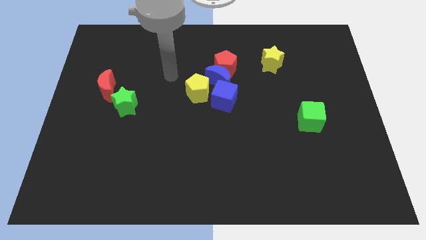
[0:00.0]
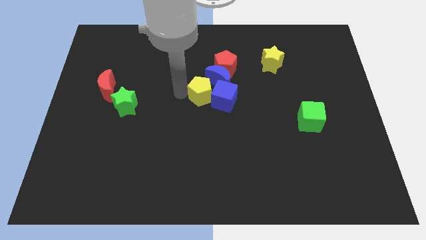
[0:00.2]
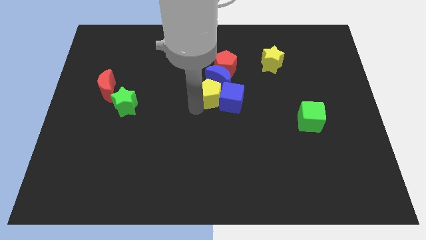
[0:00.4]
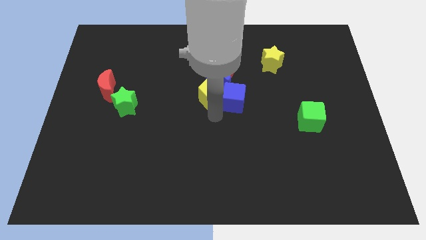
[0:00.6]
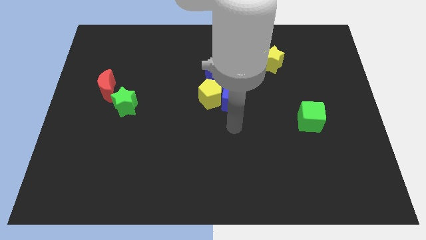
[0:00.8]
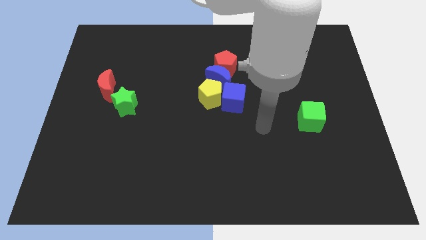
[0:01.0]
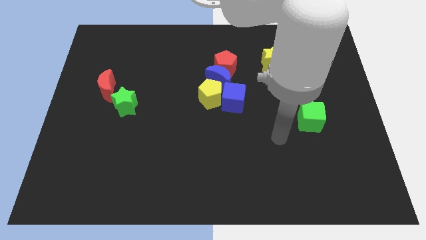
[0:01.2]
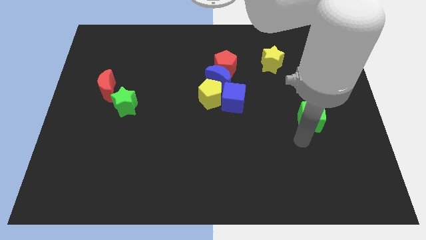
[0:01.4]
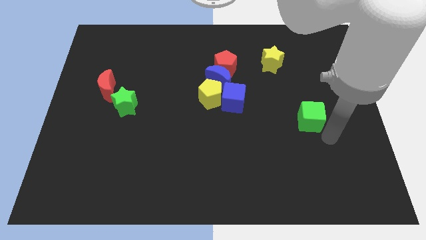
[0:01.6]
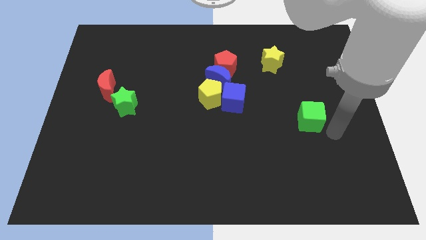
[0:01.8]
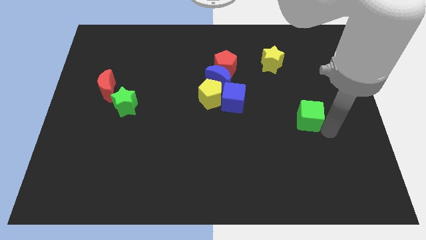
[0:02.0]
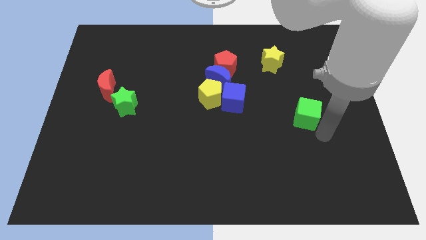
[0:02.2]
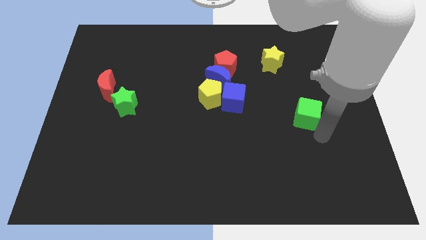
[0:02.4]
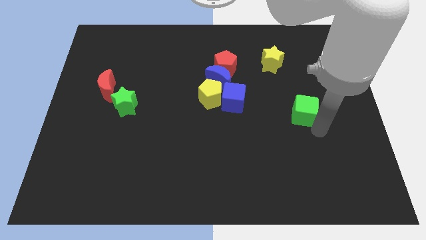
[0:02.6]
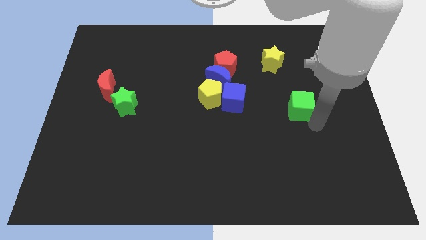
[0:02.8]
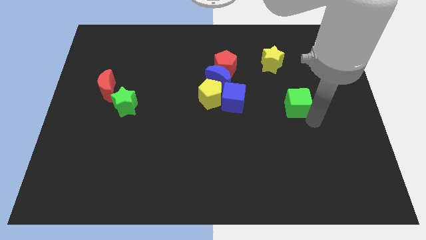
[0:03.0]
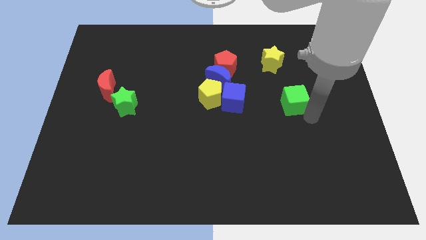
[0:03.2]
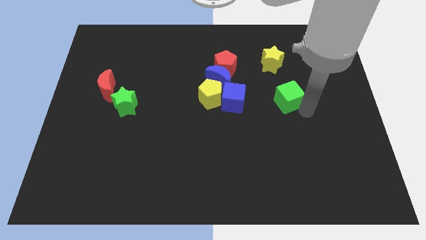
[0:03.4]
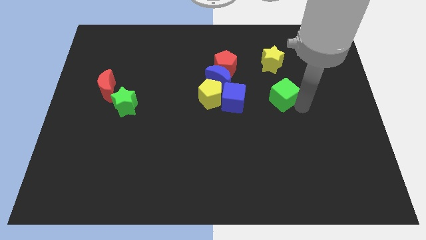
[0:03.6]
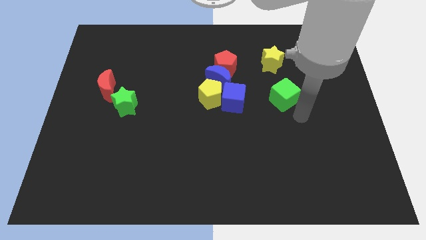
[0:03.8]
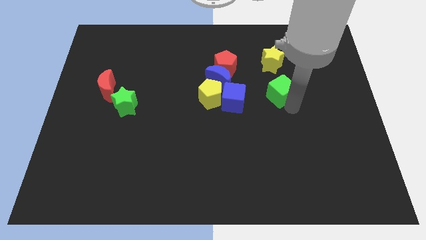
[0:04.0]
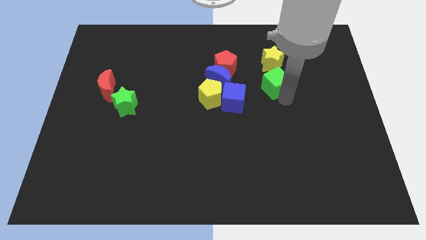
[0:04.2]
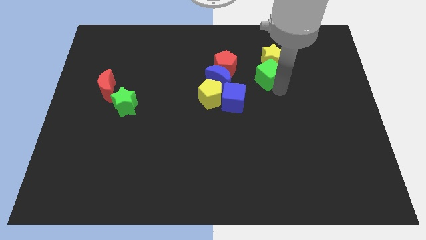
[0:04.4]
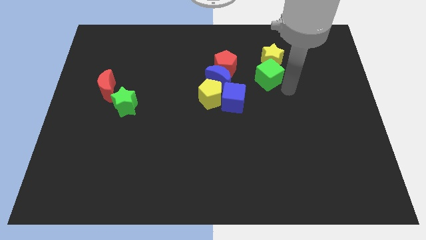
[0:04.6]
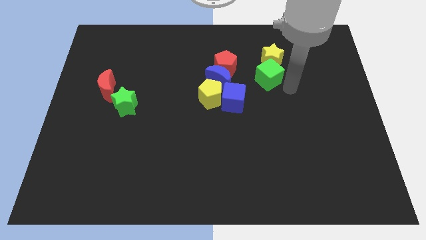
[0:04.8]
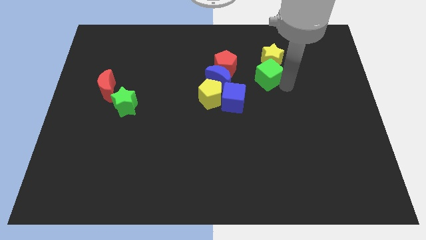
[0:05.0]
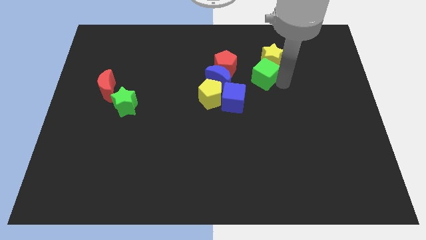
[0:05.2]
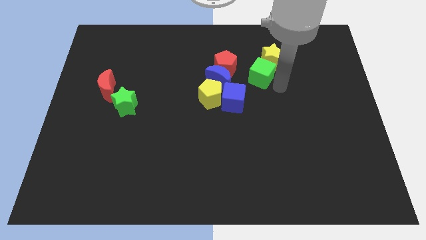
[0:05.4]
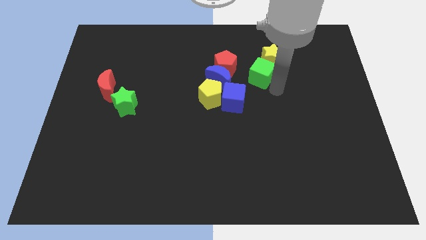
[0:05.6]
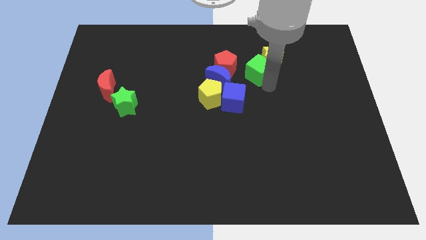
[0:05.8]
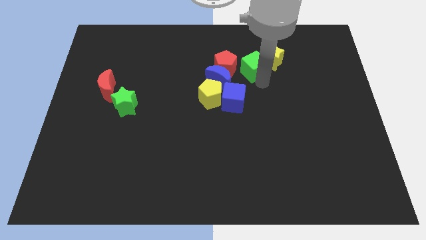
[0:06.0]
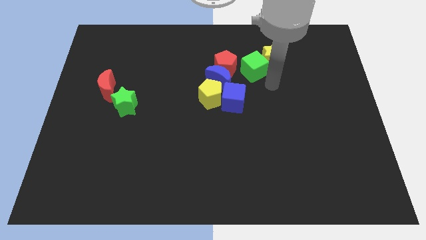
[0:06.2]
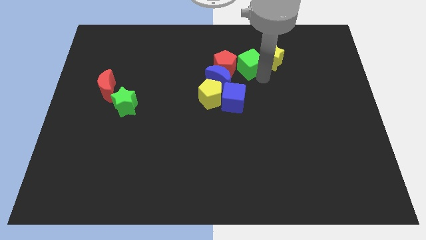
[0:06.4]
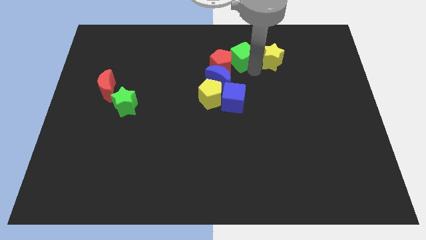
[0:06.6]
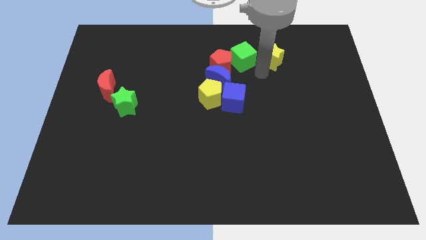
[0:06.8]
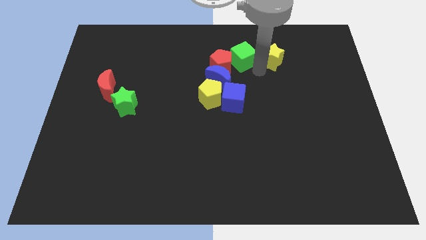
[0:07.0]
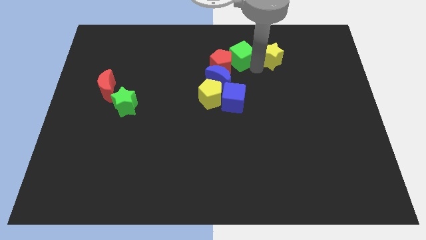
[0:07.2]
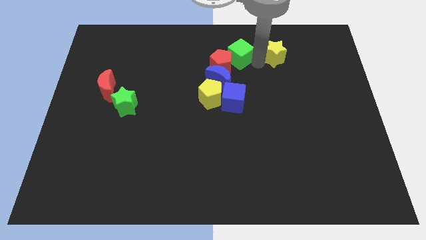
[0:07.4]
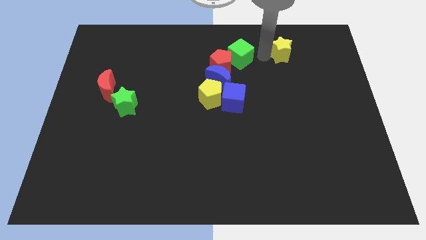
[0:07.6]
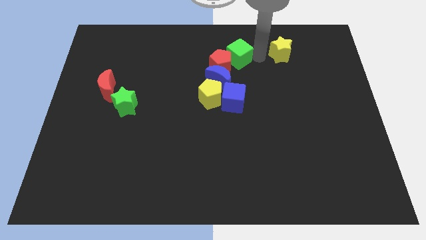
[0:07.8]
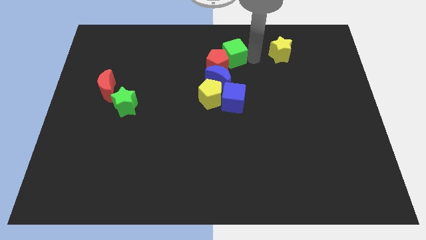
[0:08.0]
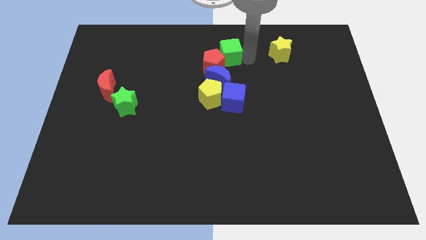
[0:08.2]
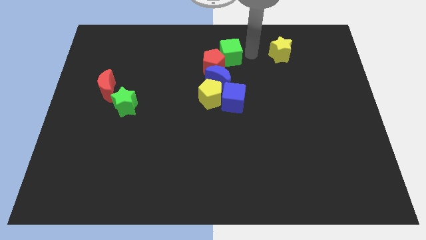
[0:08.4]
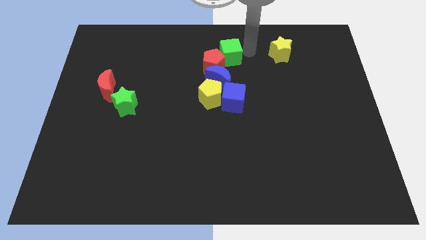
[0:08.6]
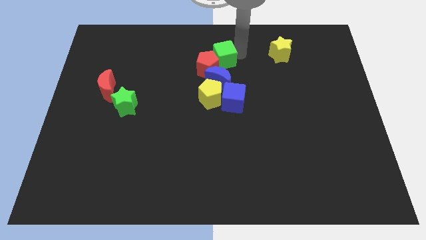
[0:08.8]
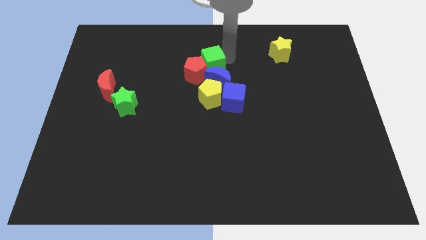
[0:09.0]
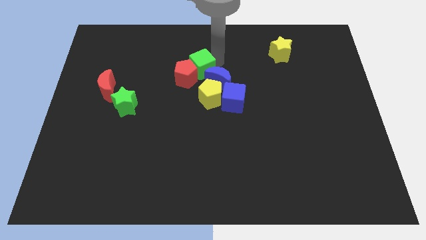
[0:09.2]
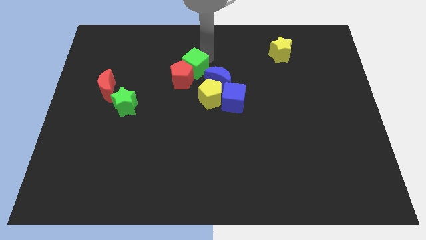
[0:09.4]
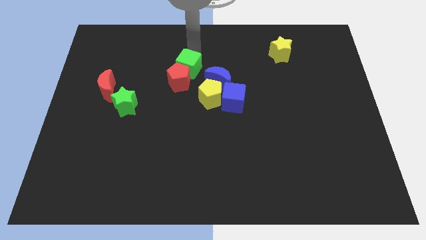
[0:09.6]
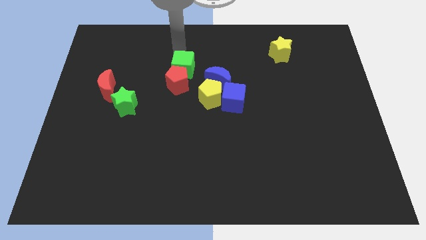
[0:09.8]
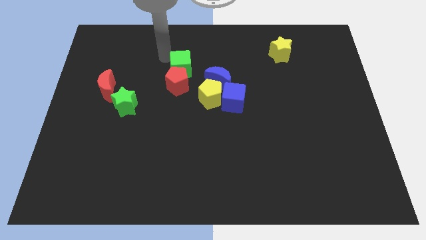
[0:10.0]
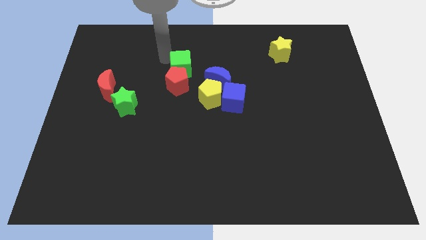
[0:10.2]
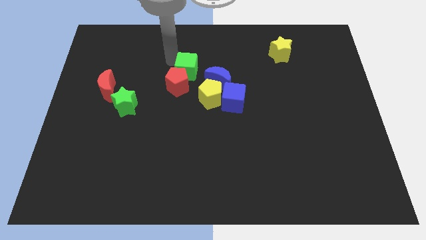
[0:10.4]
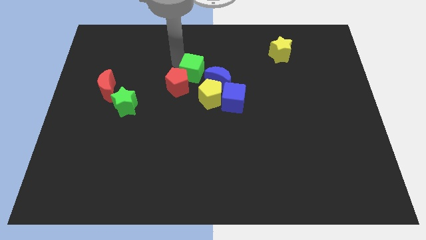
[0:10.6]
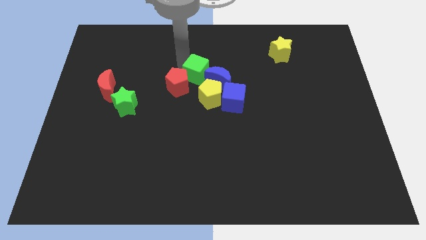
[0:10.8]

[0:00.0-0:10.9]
move the green cube to the top left of the blue cube

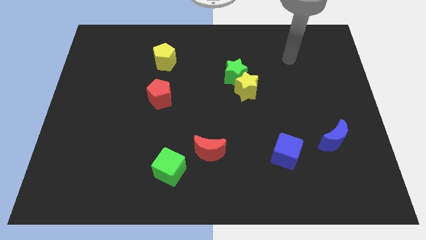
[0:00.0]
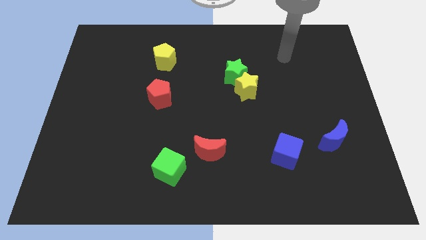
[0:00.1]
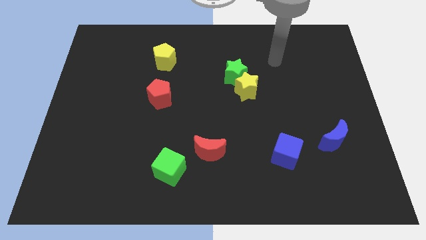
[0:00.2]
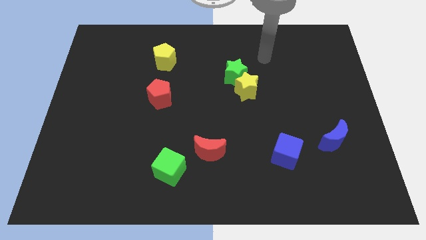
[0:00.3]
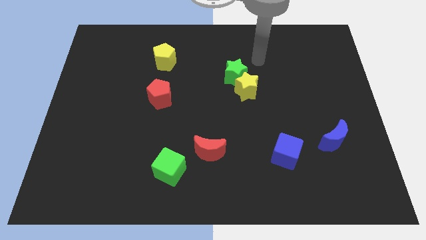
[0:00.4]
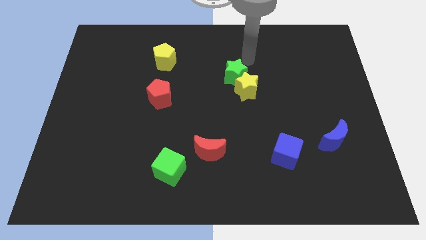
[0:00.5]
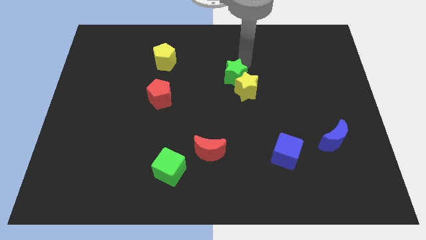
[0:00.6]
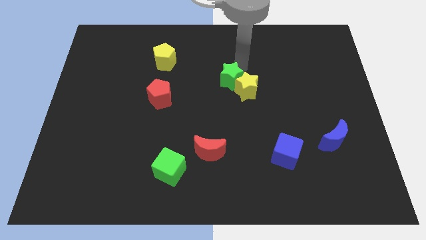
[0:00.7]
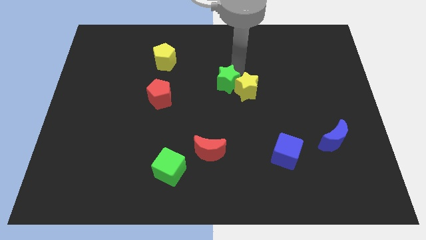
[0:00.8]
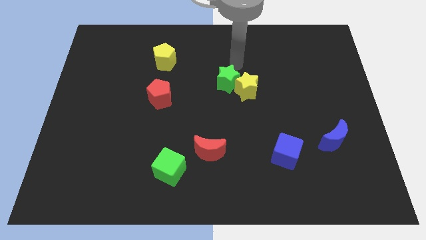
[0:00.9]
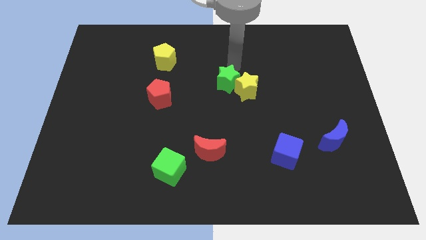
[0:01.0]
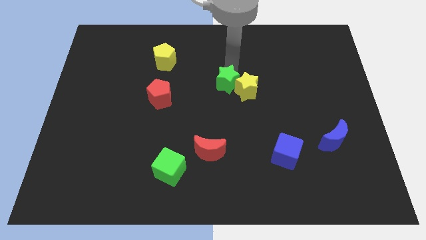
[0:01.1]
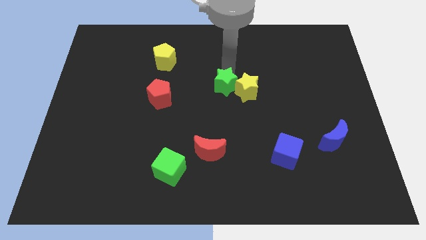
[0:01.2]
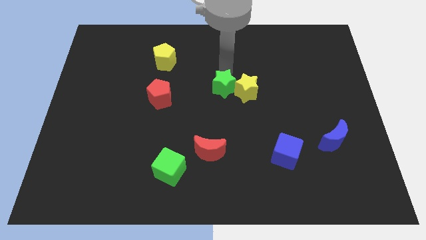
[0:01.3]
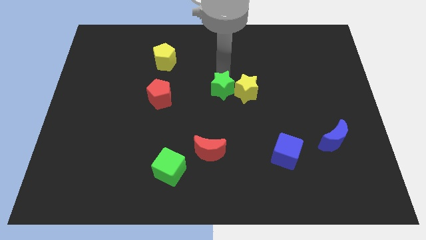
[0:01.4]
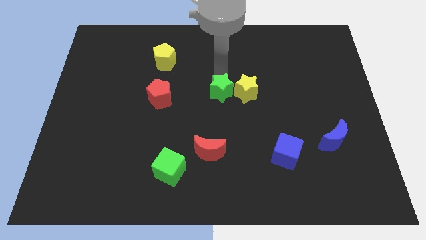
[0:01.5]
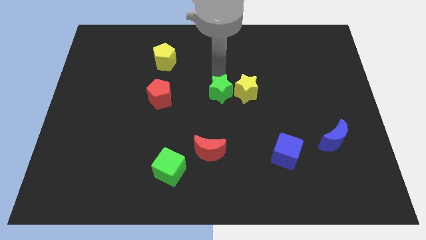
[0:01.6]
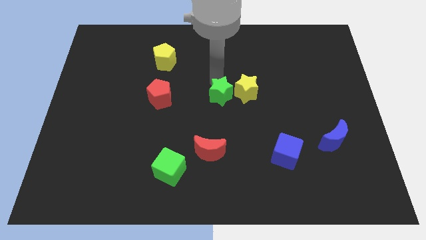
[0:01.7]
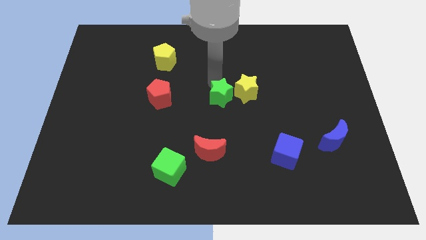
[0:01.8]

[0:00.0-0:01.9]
slide the green star above the red moon
